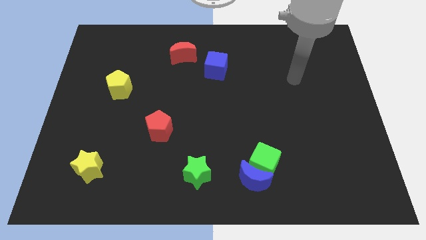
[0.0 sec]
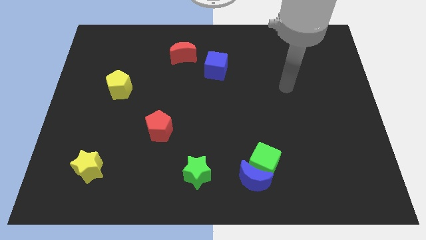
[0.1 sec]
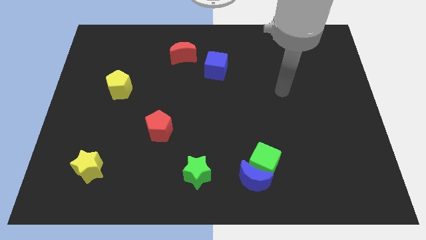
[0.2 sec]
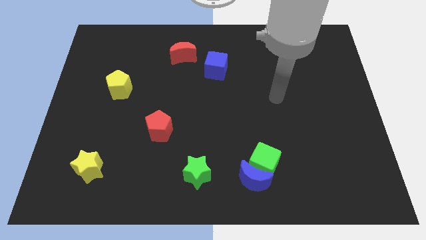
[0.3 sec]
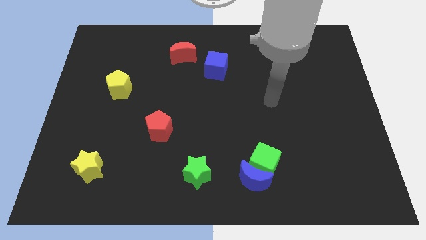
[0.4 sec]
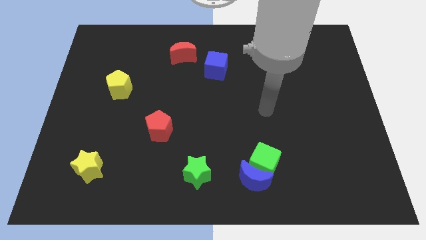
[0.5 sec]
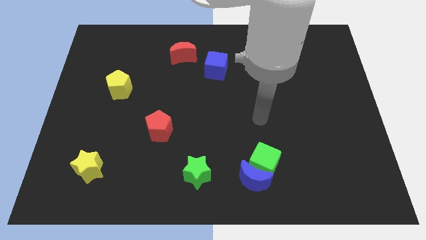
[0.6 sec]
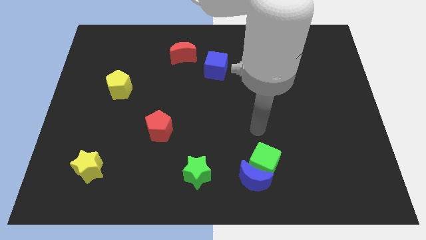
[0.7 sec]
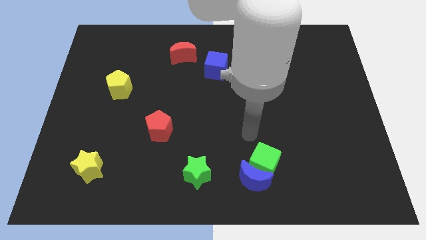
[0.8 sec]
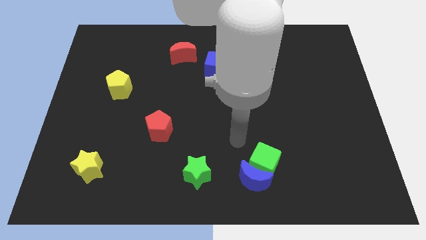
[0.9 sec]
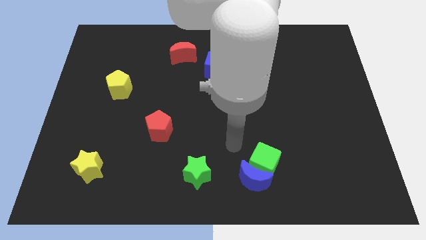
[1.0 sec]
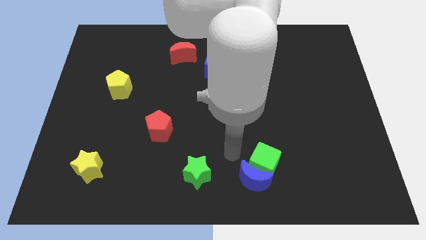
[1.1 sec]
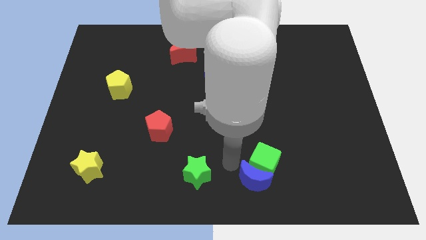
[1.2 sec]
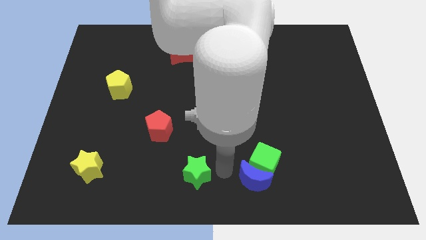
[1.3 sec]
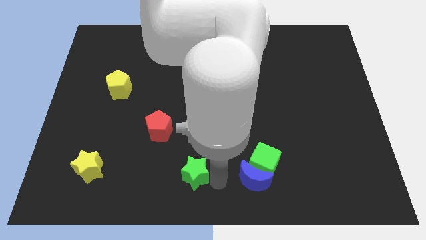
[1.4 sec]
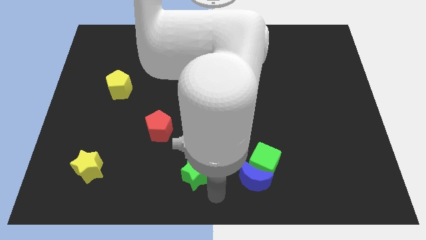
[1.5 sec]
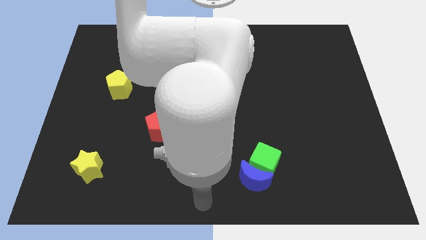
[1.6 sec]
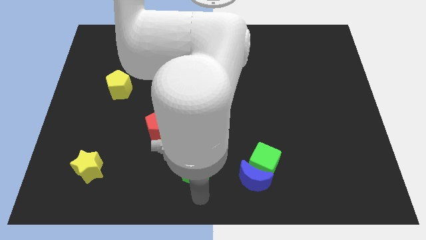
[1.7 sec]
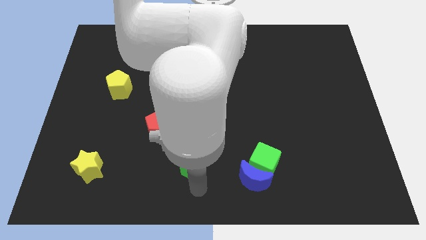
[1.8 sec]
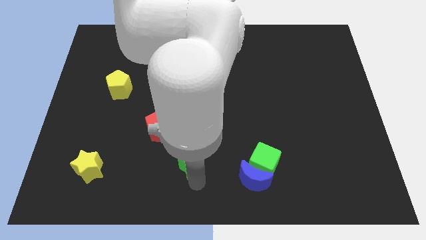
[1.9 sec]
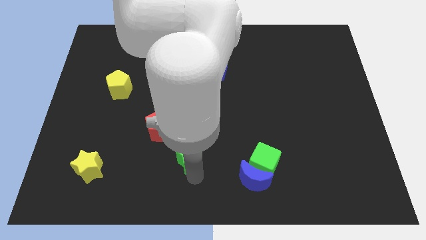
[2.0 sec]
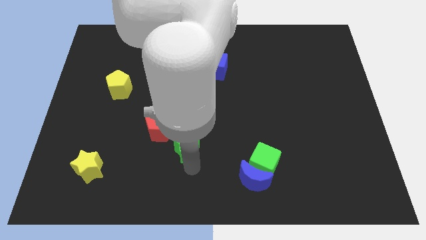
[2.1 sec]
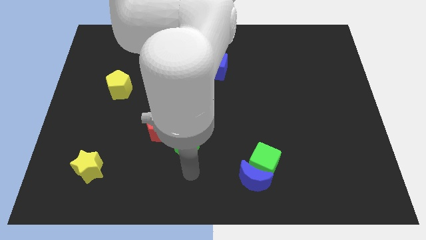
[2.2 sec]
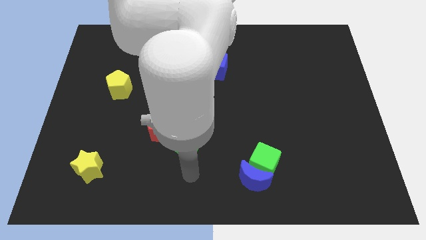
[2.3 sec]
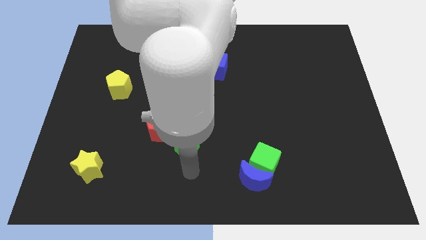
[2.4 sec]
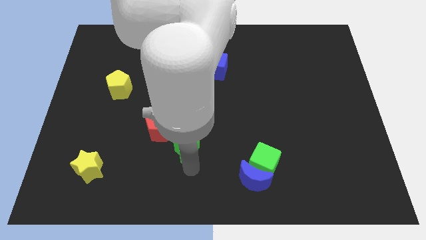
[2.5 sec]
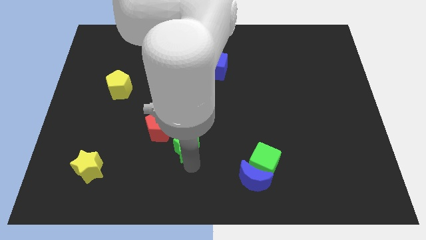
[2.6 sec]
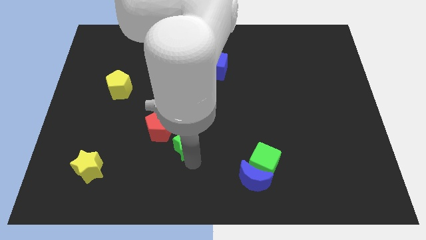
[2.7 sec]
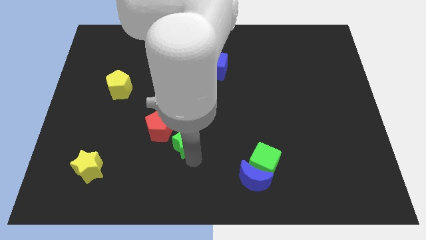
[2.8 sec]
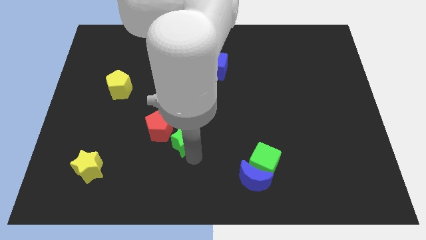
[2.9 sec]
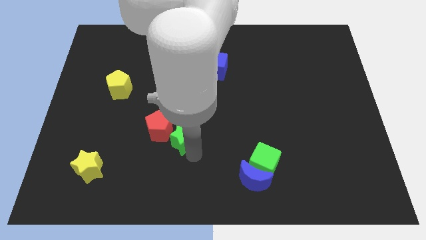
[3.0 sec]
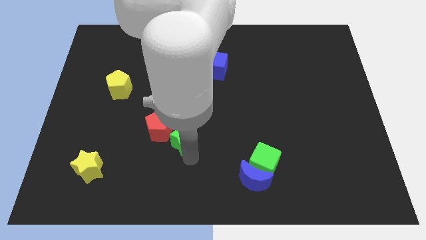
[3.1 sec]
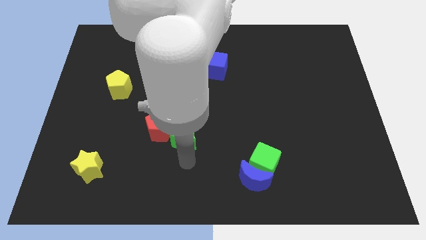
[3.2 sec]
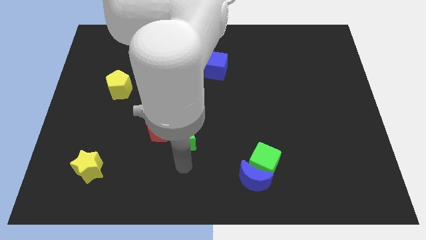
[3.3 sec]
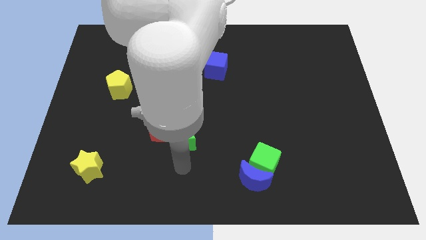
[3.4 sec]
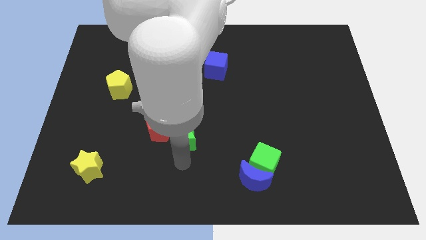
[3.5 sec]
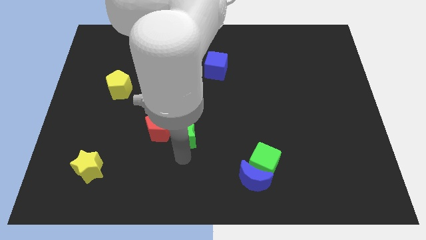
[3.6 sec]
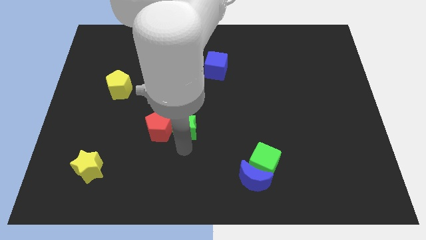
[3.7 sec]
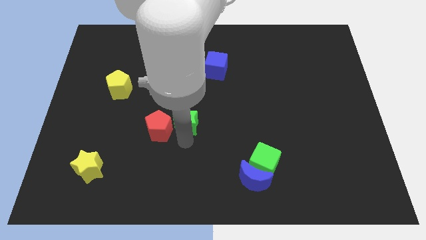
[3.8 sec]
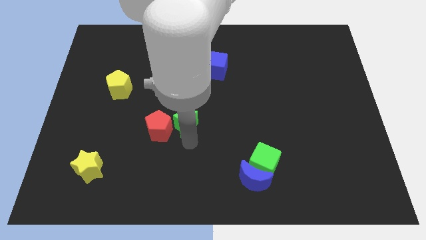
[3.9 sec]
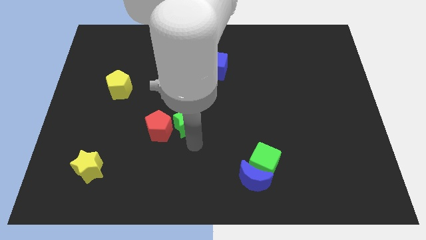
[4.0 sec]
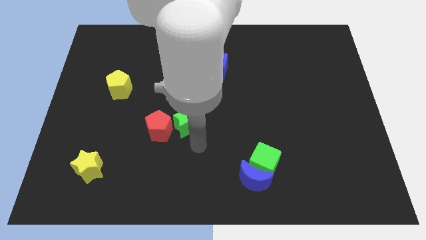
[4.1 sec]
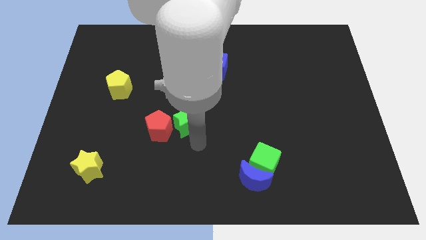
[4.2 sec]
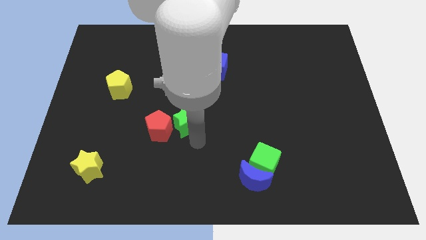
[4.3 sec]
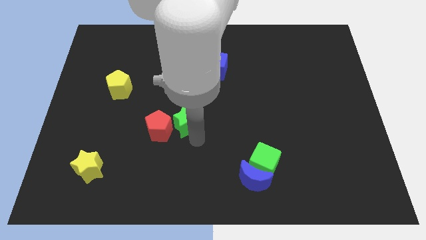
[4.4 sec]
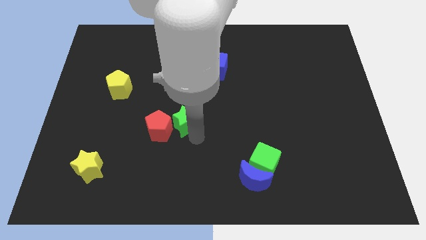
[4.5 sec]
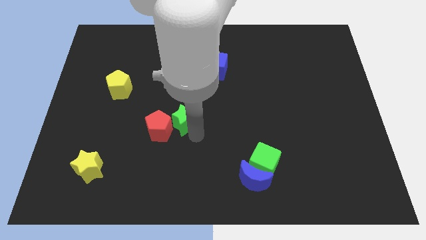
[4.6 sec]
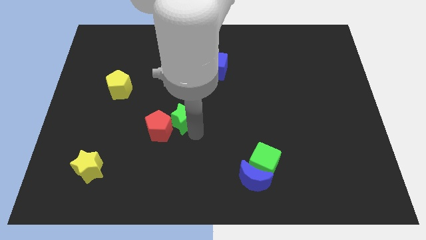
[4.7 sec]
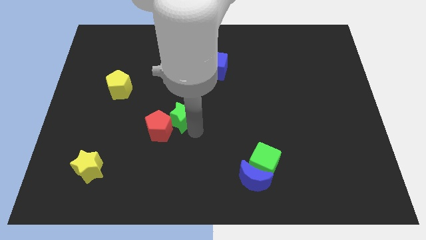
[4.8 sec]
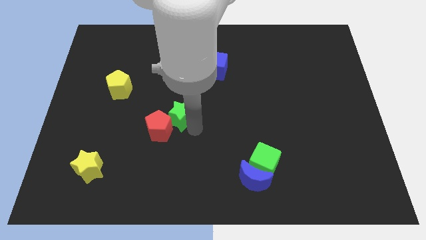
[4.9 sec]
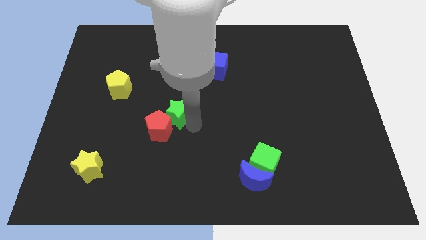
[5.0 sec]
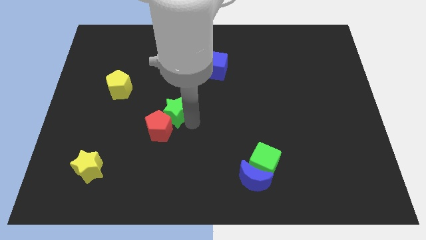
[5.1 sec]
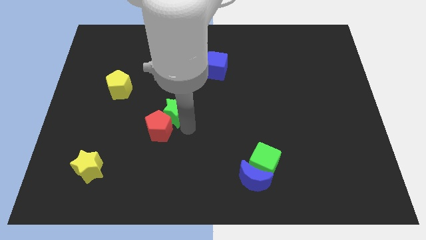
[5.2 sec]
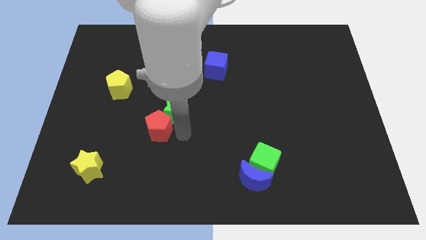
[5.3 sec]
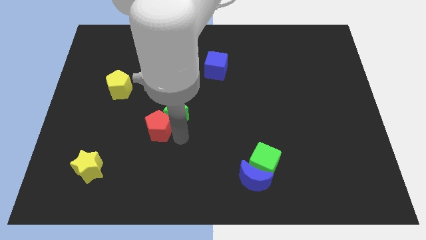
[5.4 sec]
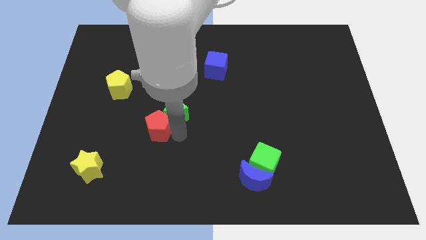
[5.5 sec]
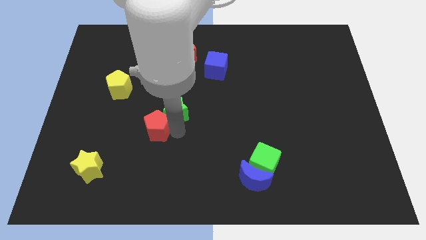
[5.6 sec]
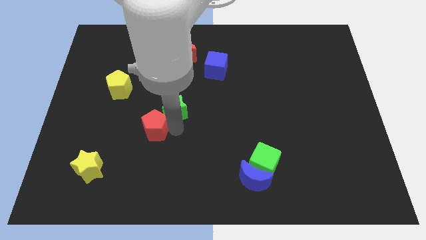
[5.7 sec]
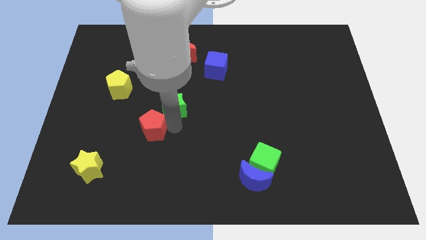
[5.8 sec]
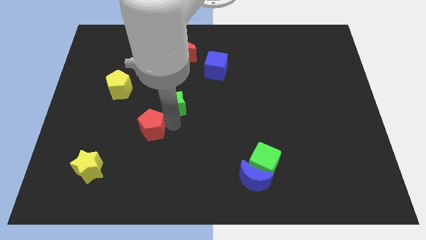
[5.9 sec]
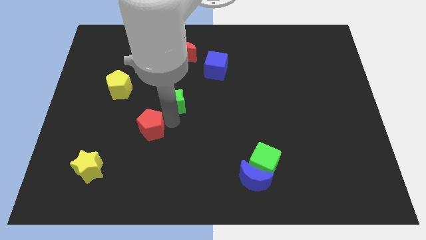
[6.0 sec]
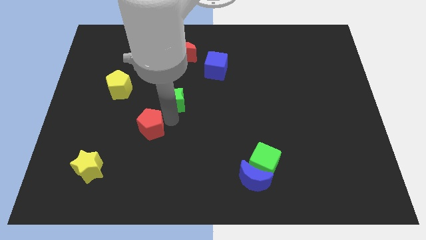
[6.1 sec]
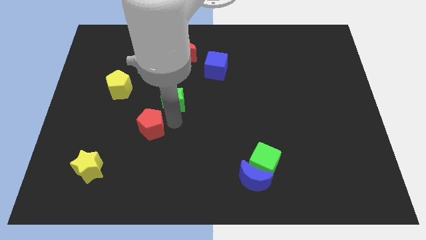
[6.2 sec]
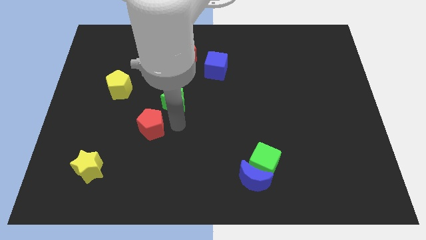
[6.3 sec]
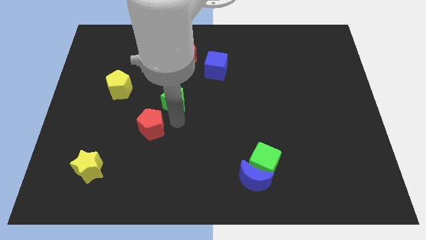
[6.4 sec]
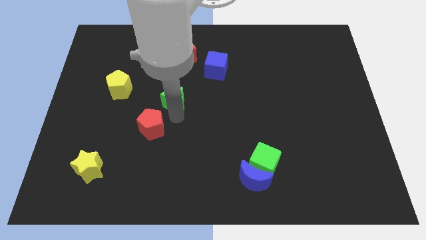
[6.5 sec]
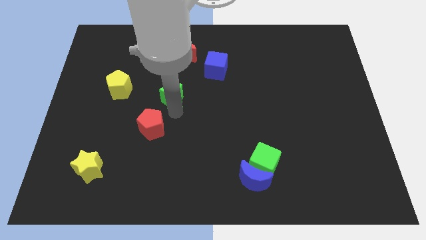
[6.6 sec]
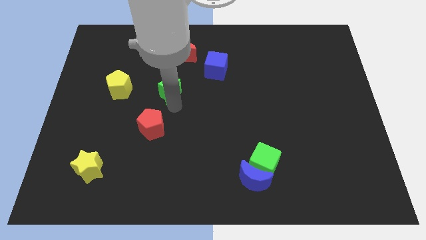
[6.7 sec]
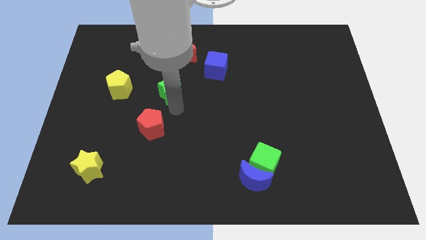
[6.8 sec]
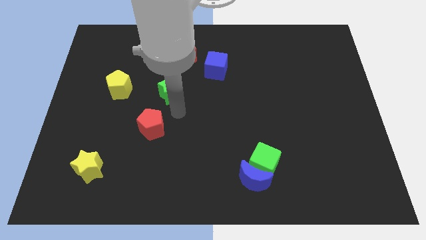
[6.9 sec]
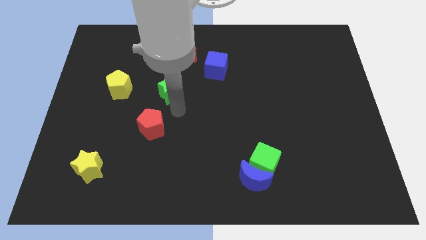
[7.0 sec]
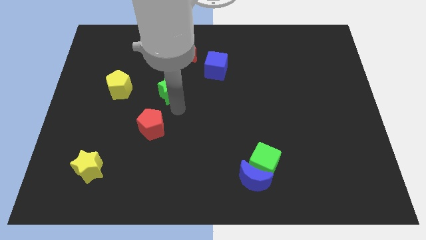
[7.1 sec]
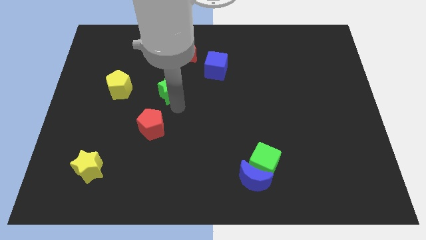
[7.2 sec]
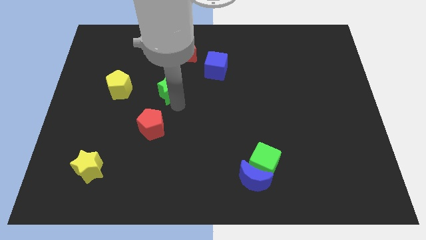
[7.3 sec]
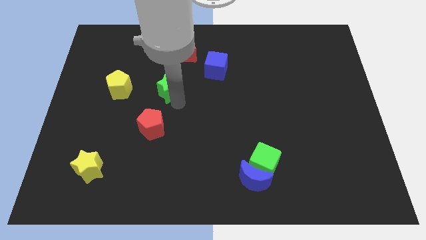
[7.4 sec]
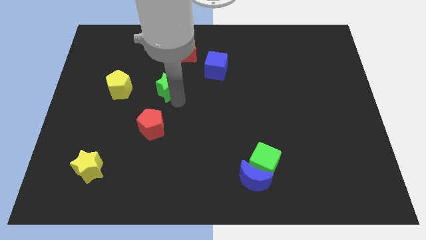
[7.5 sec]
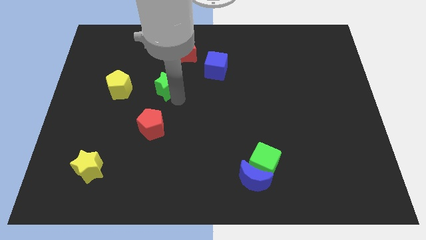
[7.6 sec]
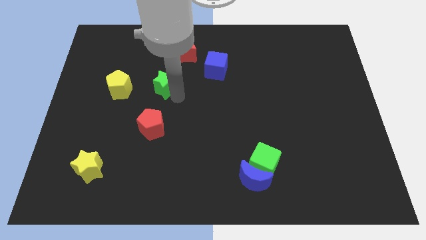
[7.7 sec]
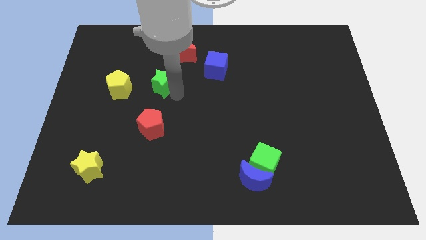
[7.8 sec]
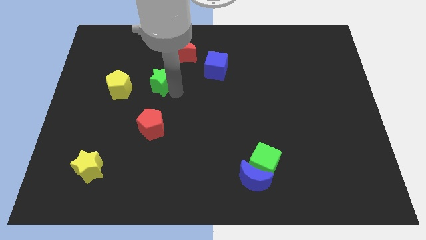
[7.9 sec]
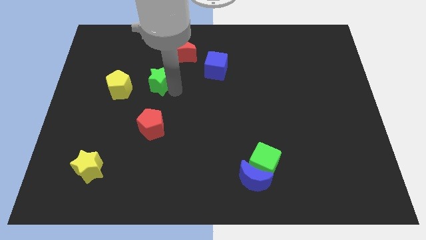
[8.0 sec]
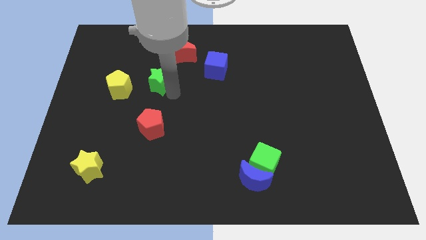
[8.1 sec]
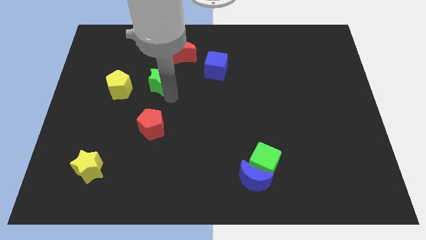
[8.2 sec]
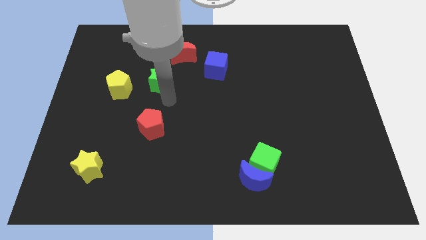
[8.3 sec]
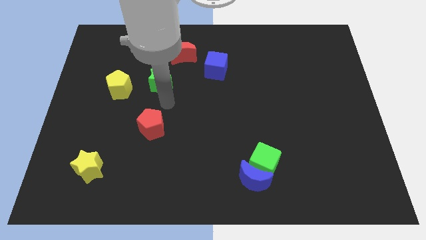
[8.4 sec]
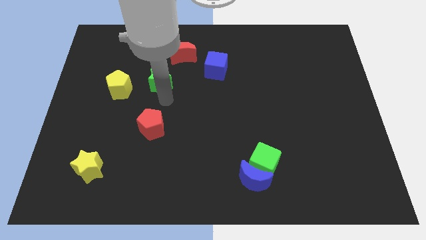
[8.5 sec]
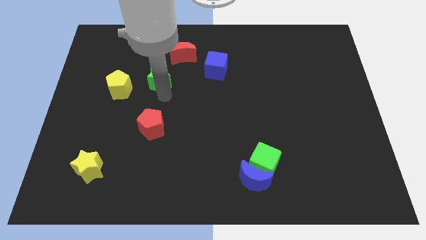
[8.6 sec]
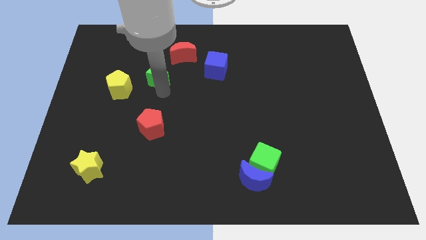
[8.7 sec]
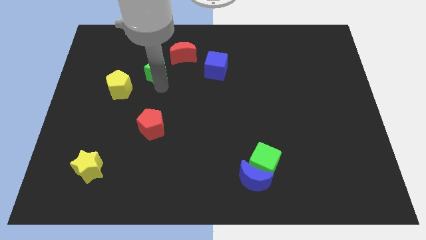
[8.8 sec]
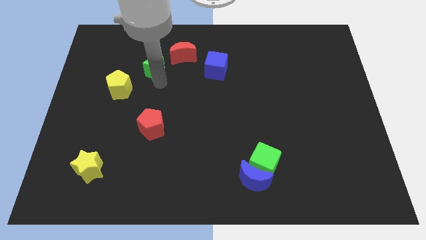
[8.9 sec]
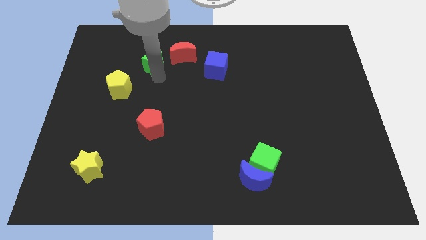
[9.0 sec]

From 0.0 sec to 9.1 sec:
push the green star to the left side of the red moon
